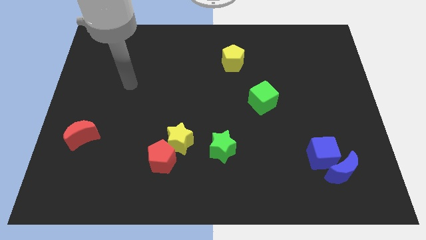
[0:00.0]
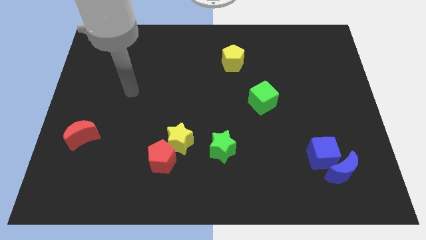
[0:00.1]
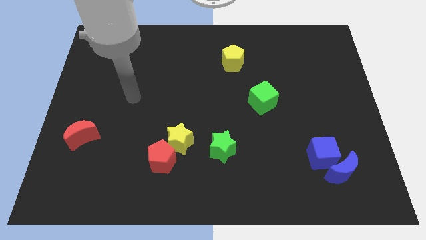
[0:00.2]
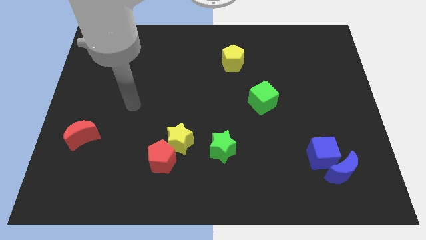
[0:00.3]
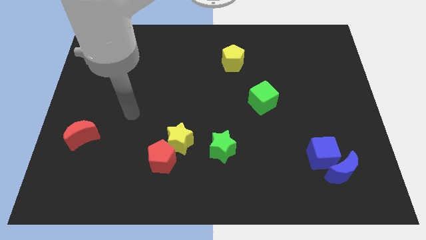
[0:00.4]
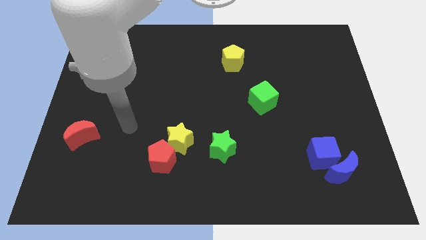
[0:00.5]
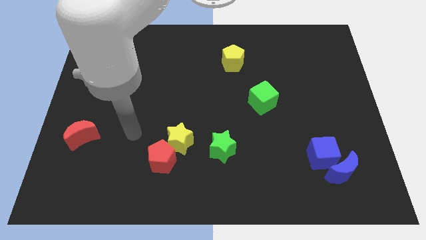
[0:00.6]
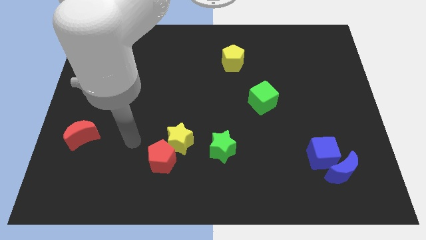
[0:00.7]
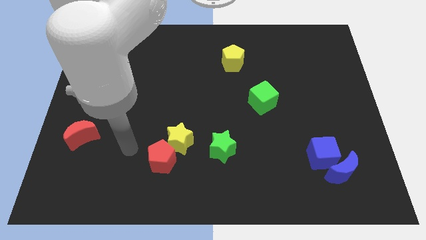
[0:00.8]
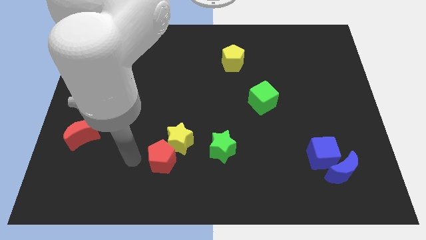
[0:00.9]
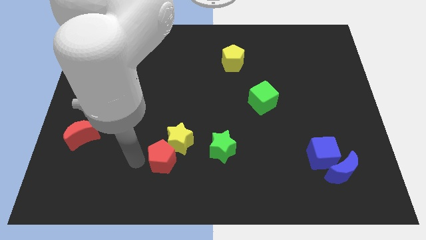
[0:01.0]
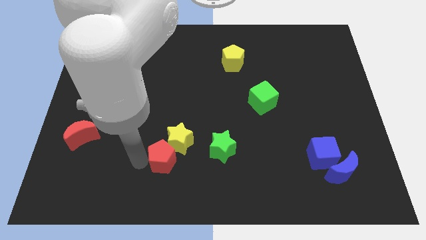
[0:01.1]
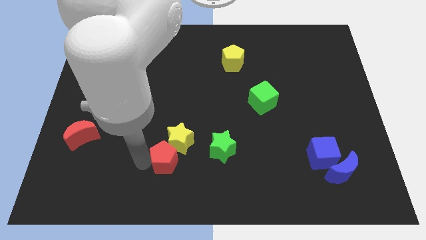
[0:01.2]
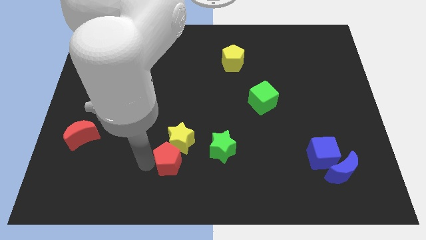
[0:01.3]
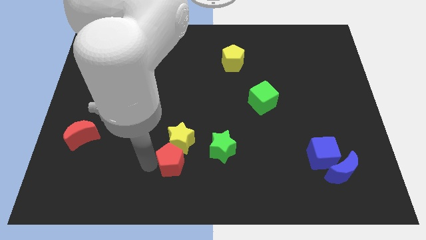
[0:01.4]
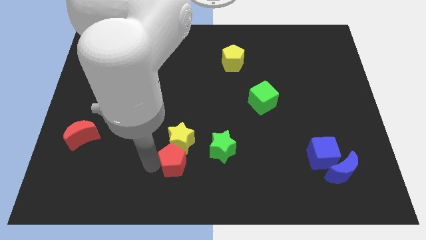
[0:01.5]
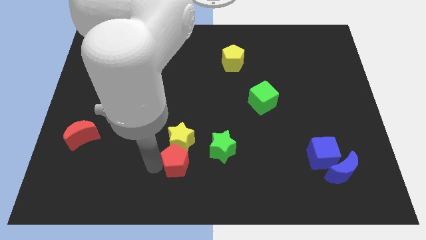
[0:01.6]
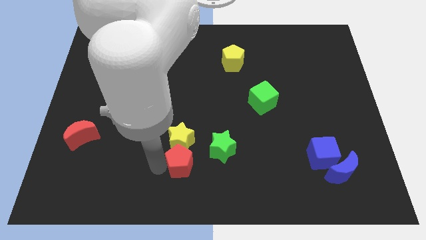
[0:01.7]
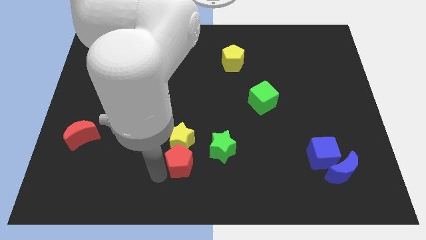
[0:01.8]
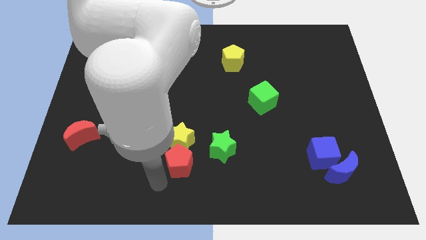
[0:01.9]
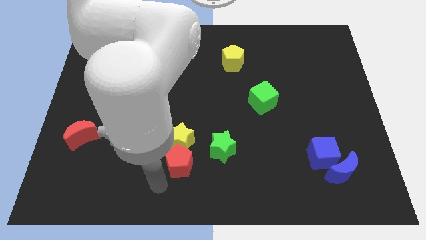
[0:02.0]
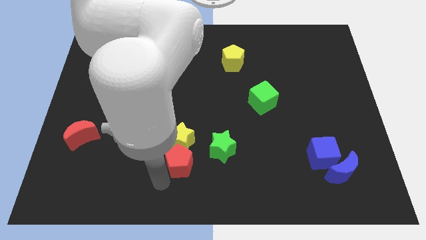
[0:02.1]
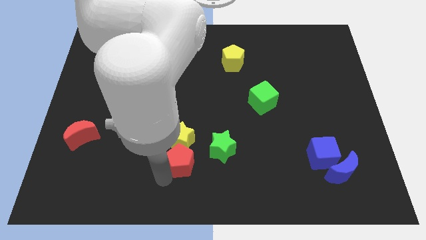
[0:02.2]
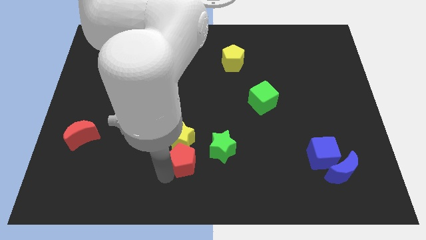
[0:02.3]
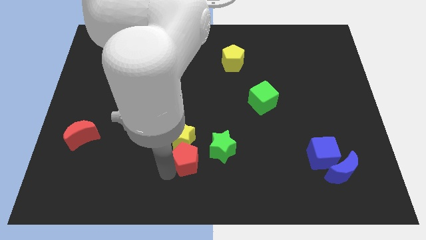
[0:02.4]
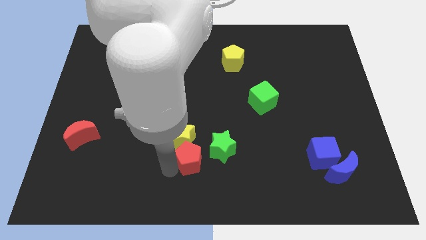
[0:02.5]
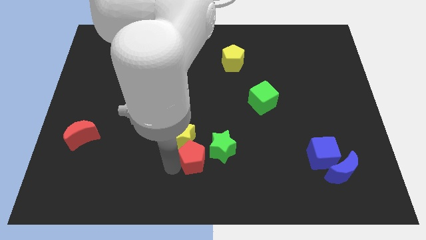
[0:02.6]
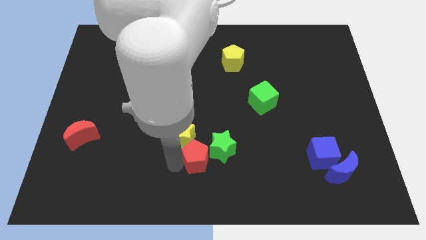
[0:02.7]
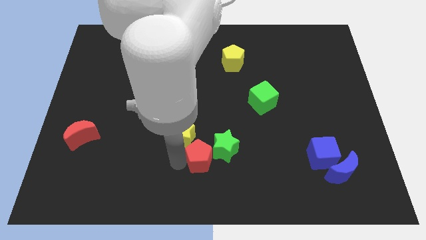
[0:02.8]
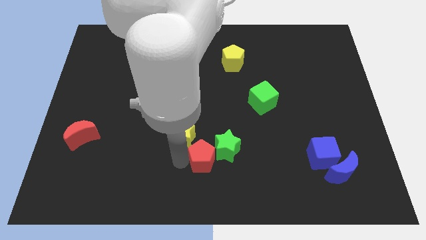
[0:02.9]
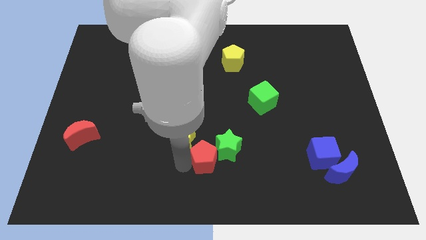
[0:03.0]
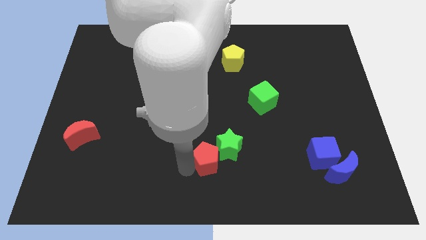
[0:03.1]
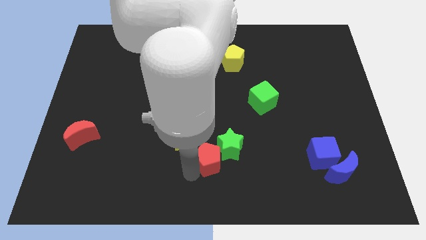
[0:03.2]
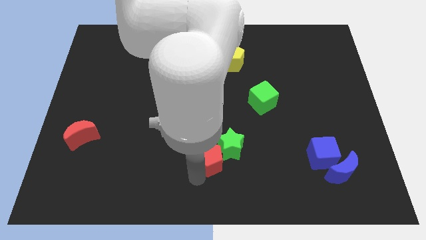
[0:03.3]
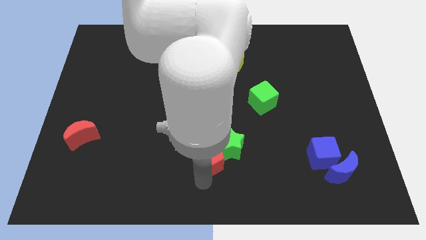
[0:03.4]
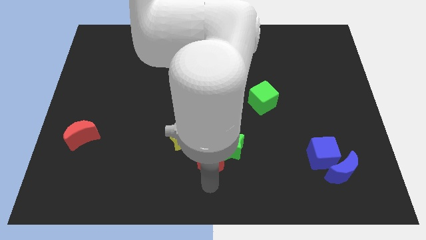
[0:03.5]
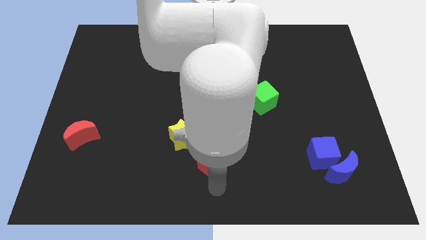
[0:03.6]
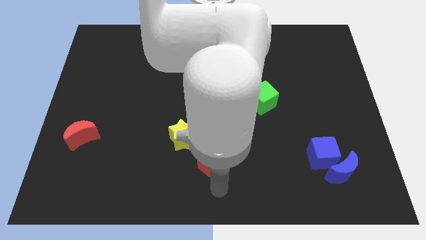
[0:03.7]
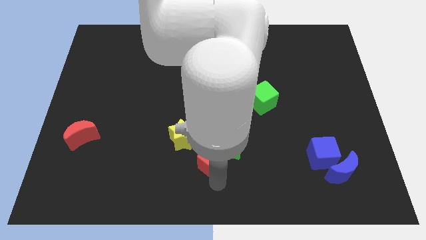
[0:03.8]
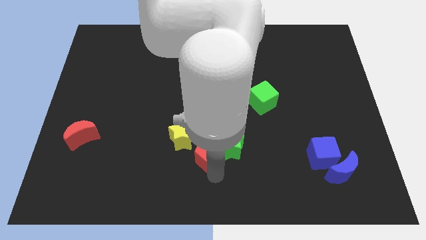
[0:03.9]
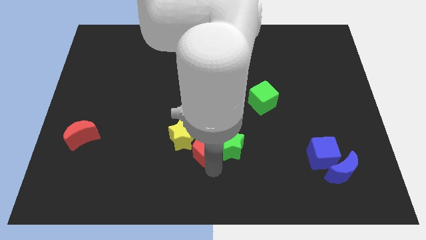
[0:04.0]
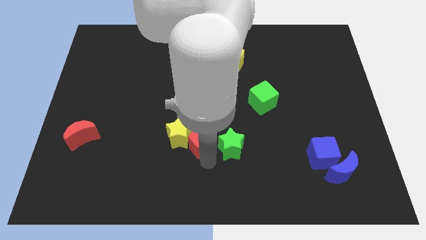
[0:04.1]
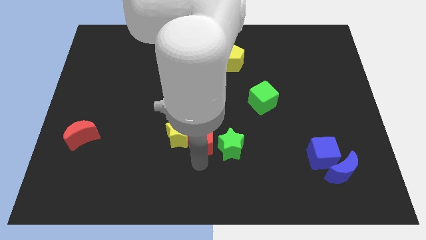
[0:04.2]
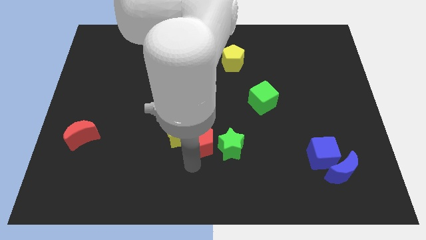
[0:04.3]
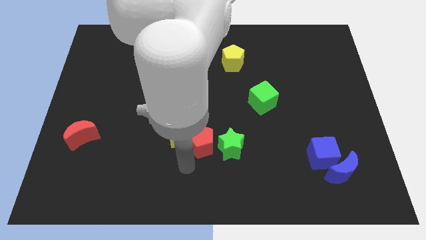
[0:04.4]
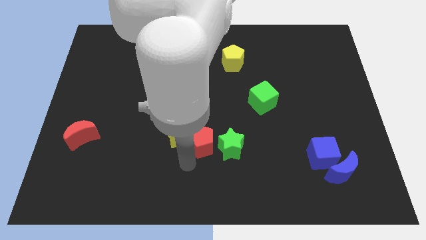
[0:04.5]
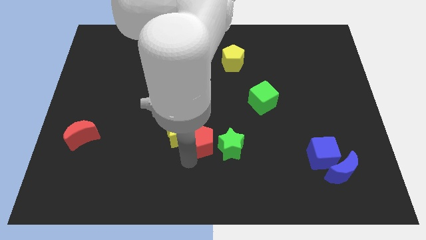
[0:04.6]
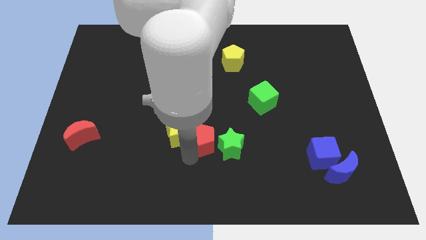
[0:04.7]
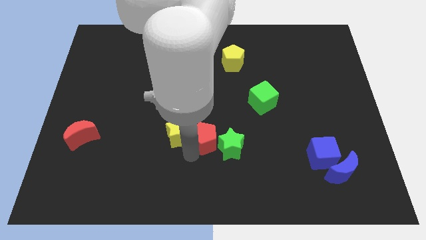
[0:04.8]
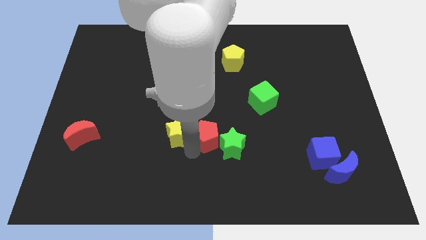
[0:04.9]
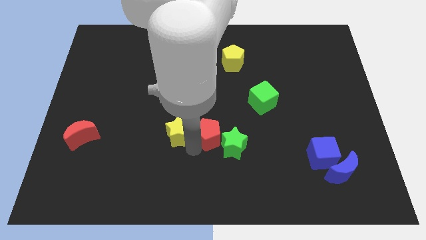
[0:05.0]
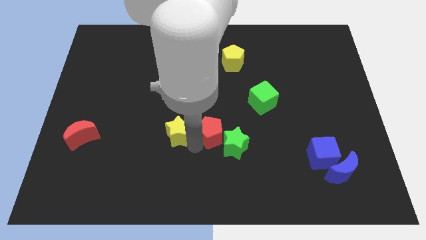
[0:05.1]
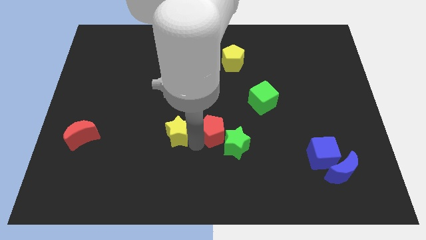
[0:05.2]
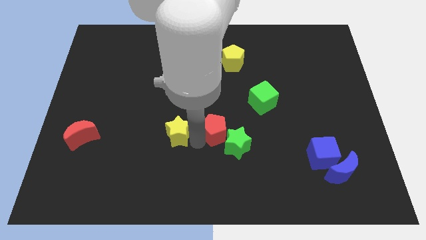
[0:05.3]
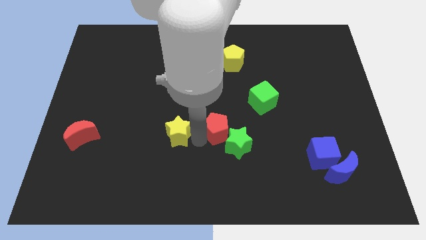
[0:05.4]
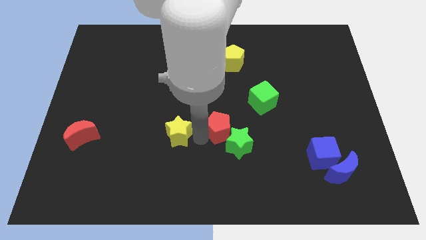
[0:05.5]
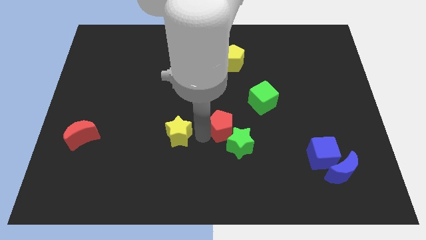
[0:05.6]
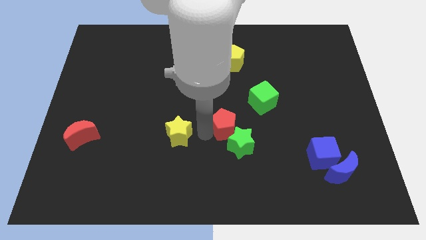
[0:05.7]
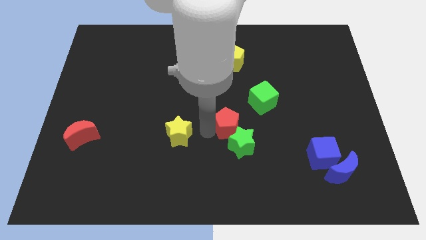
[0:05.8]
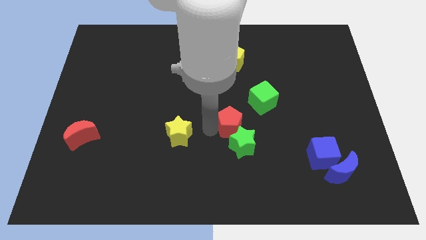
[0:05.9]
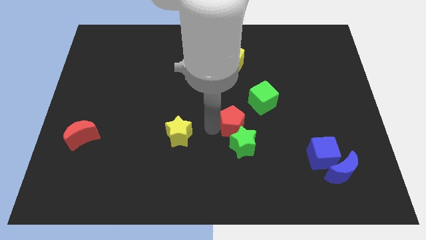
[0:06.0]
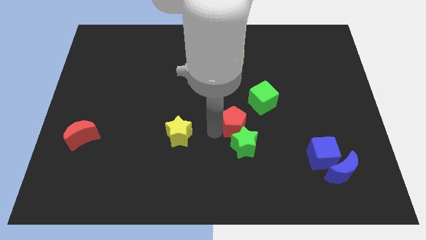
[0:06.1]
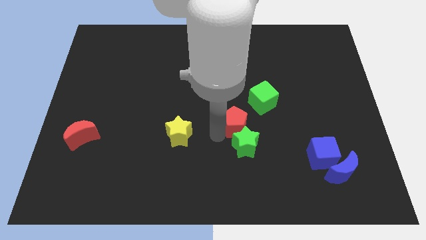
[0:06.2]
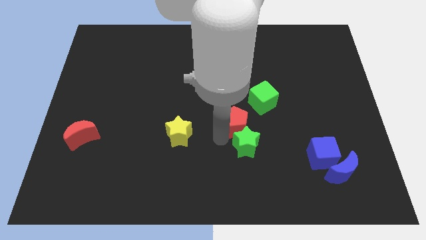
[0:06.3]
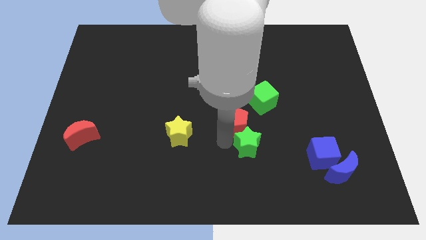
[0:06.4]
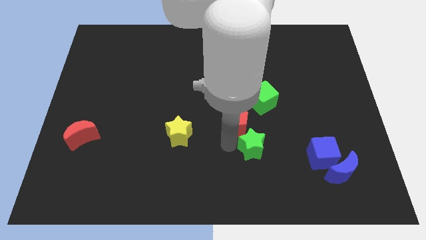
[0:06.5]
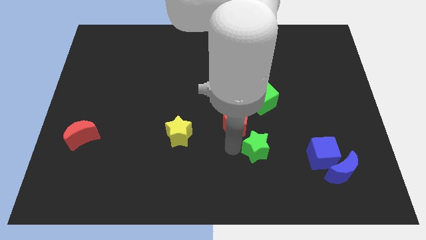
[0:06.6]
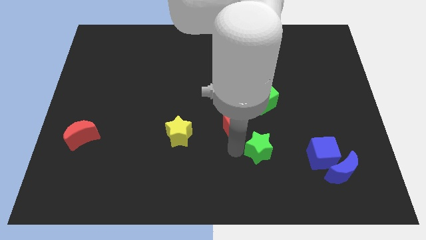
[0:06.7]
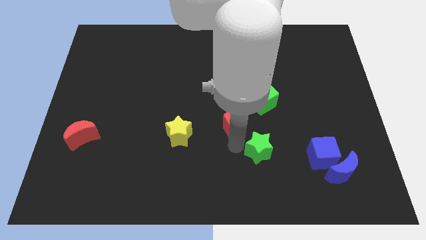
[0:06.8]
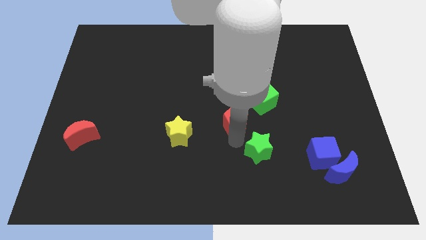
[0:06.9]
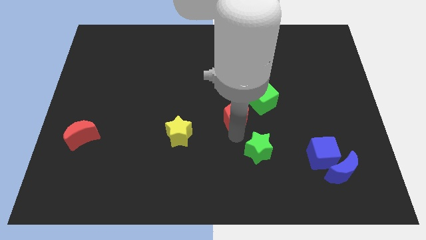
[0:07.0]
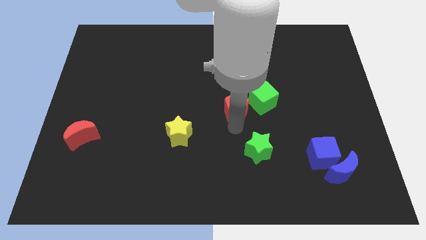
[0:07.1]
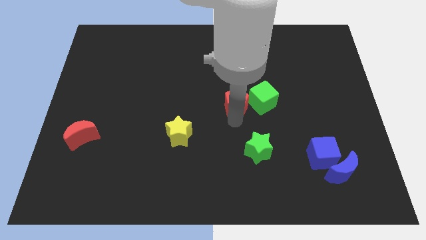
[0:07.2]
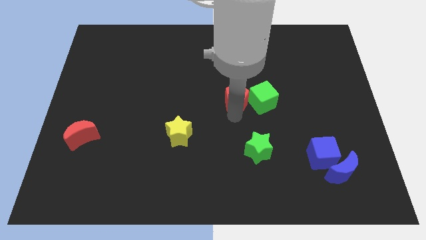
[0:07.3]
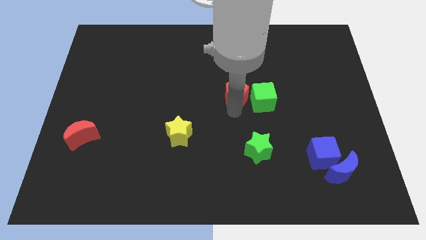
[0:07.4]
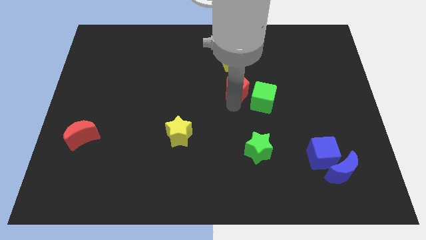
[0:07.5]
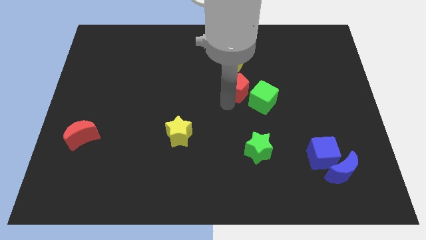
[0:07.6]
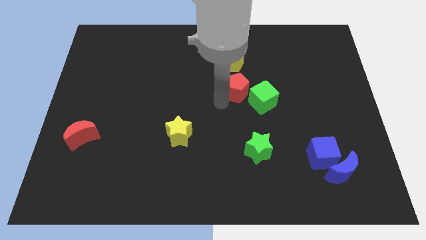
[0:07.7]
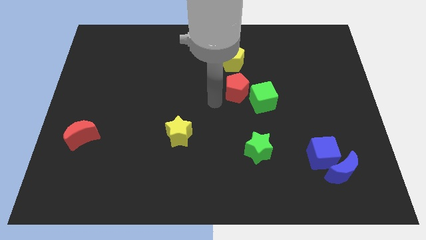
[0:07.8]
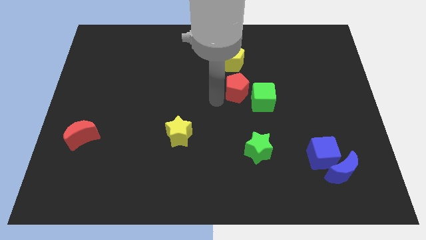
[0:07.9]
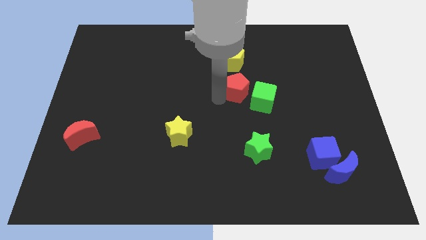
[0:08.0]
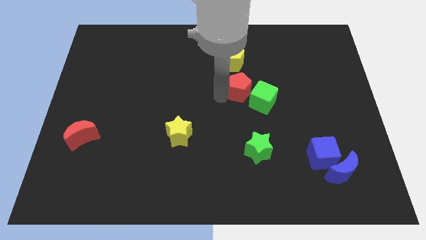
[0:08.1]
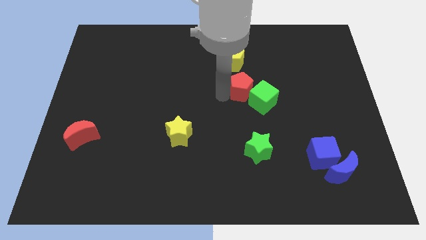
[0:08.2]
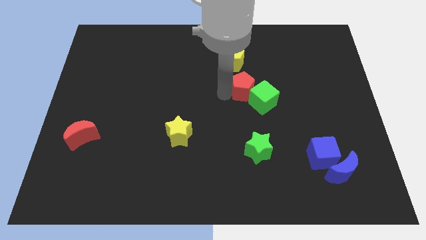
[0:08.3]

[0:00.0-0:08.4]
slide the red pentagon to the top of the green cube

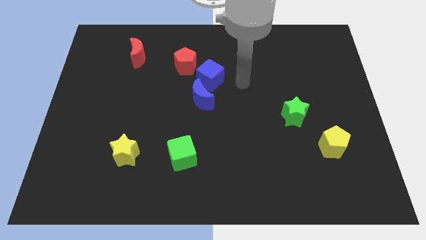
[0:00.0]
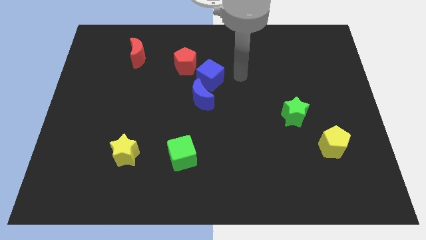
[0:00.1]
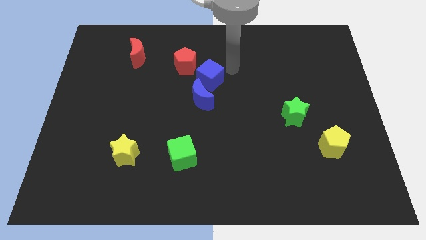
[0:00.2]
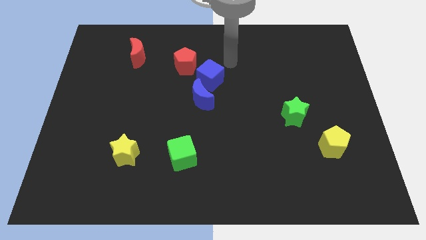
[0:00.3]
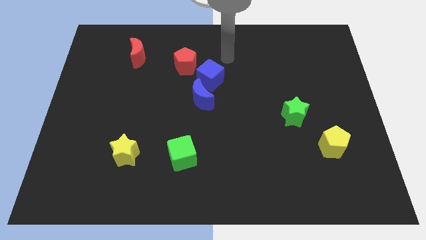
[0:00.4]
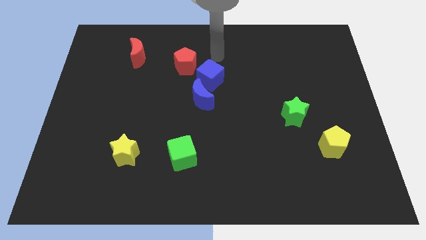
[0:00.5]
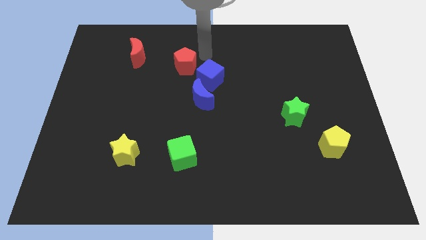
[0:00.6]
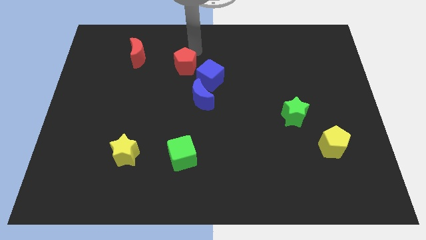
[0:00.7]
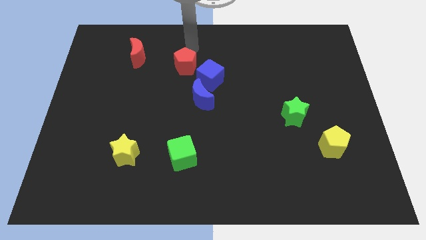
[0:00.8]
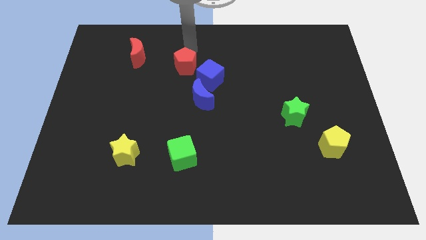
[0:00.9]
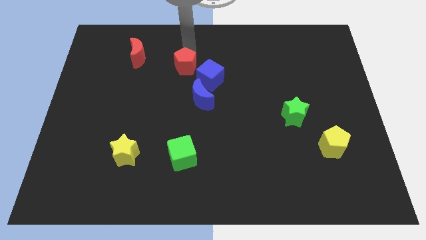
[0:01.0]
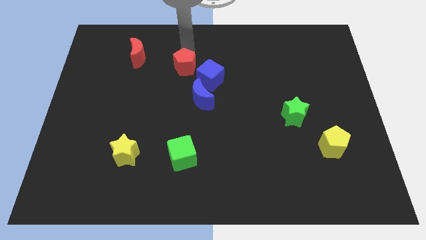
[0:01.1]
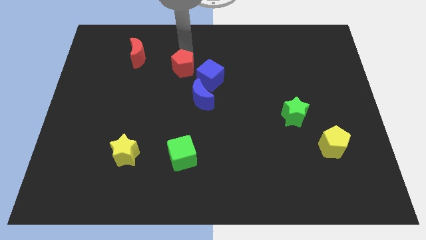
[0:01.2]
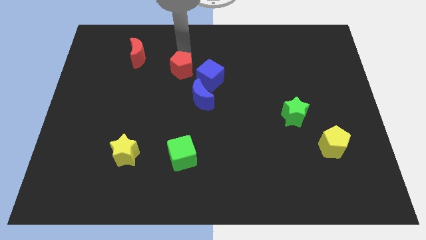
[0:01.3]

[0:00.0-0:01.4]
slide the red pentagon to the top left side of the blue moon
